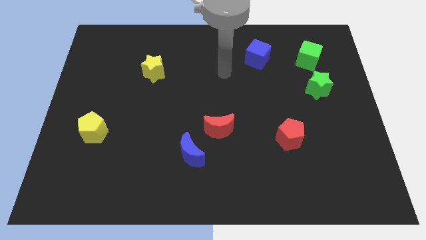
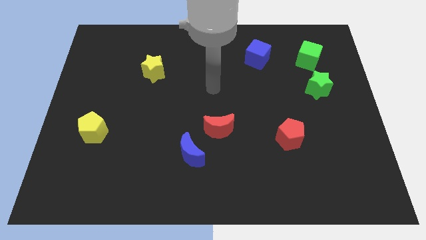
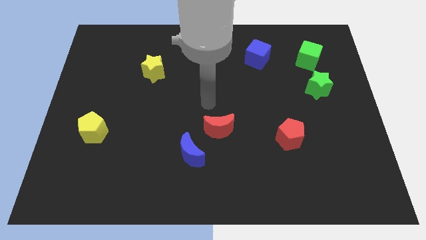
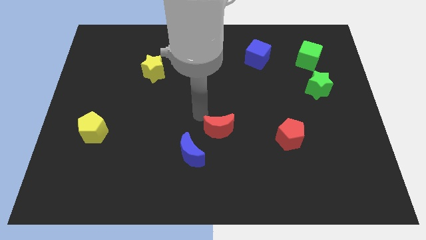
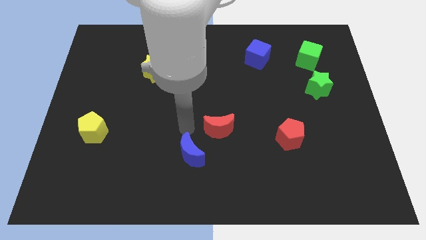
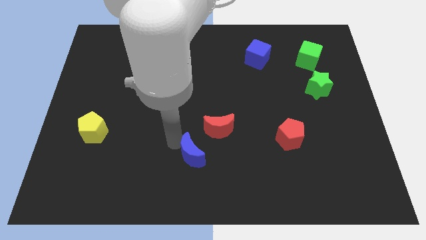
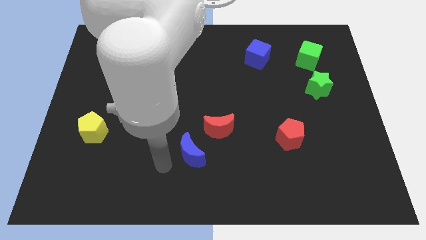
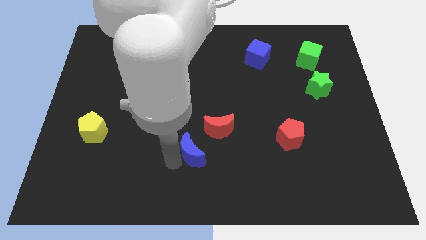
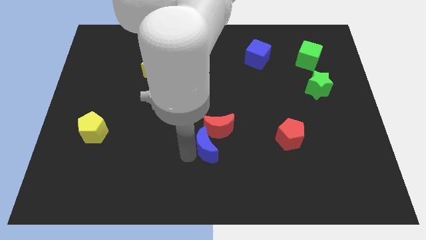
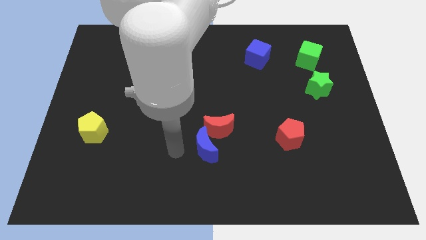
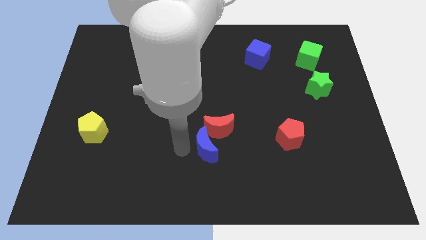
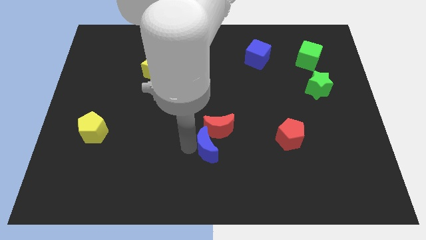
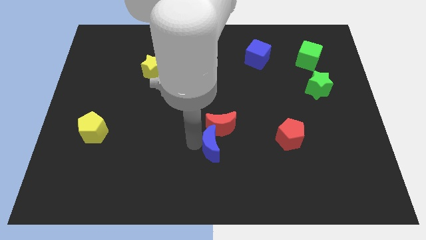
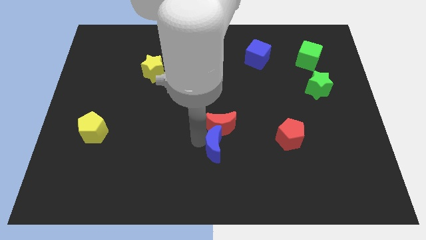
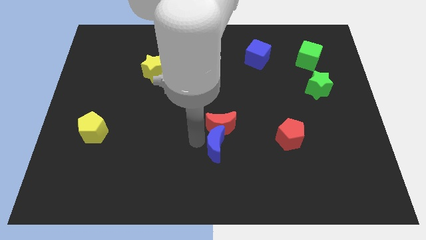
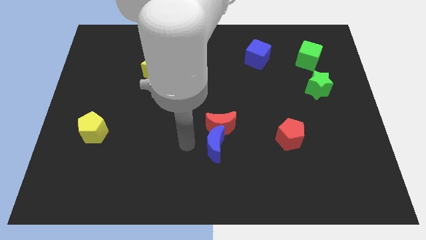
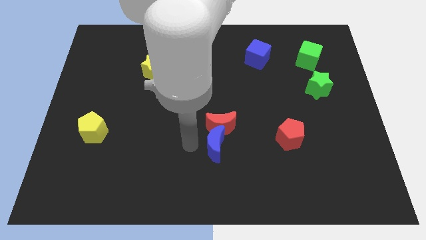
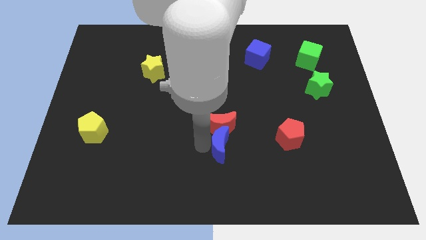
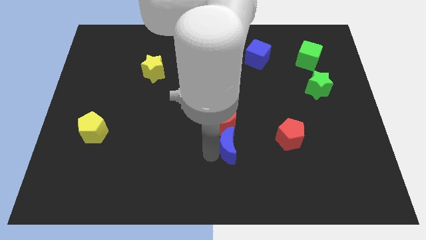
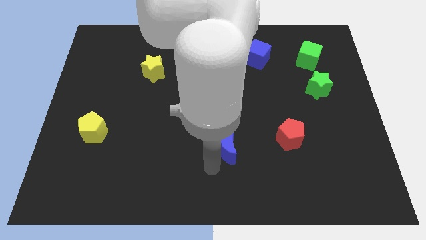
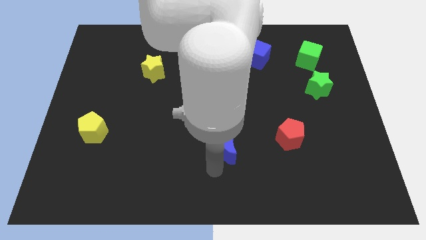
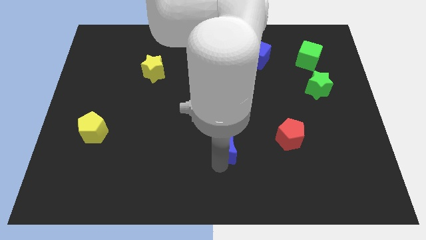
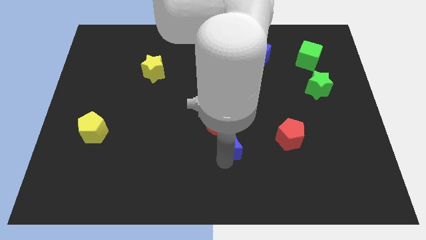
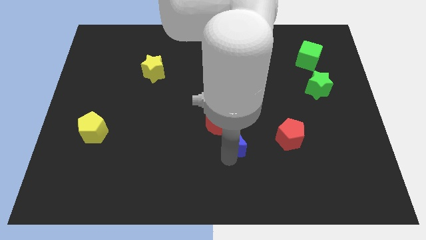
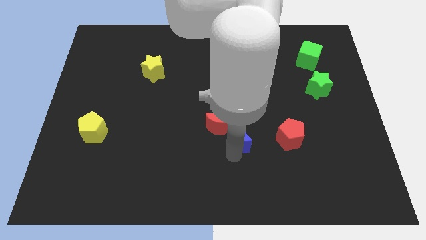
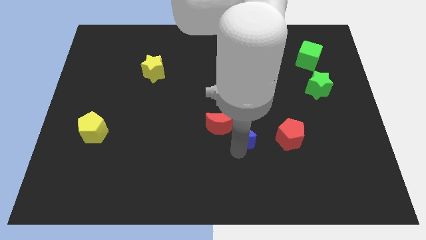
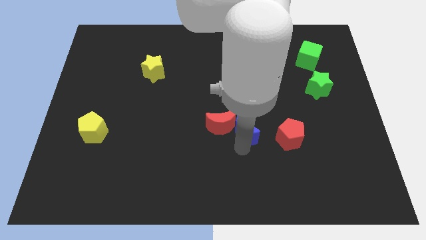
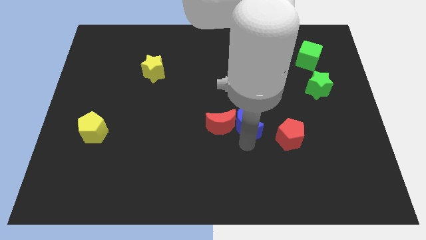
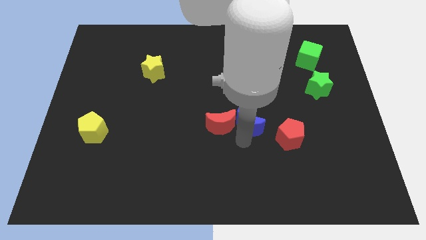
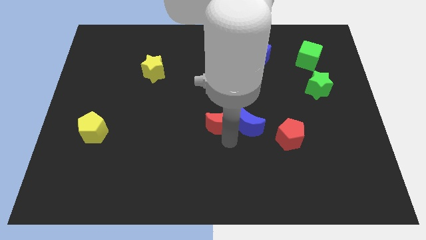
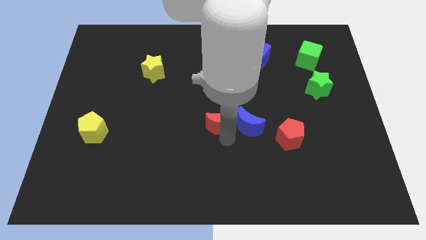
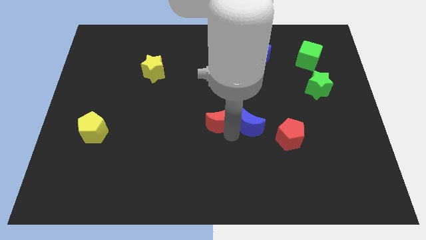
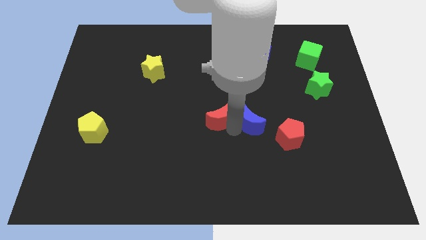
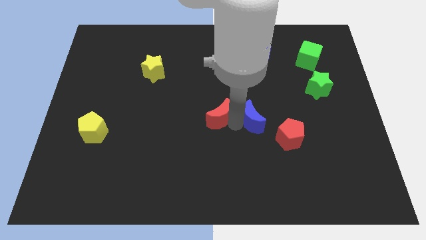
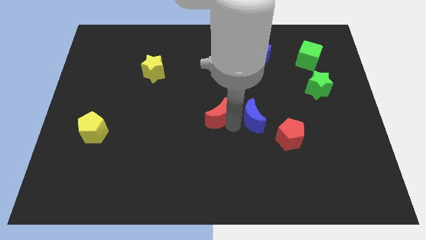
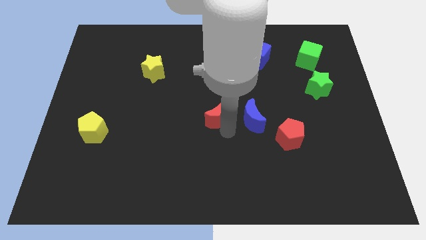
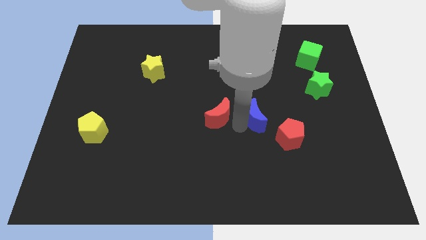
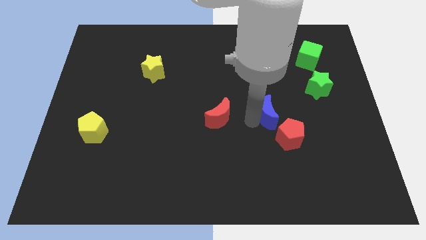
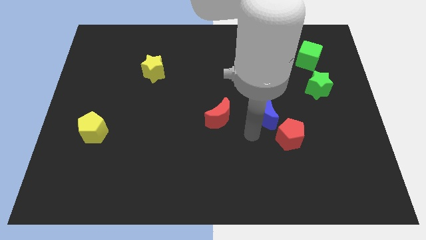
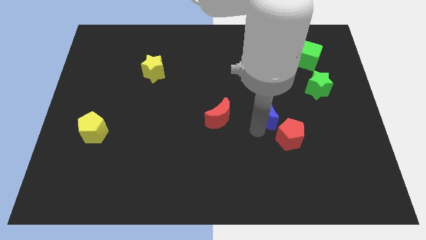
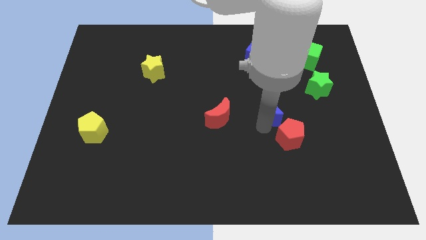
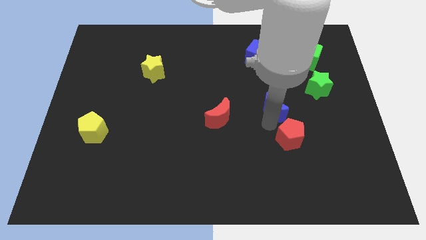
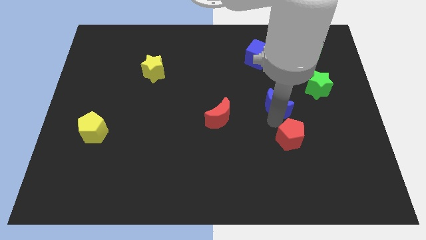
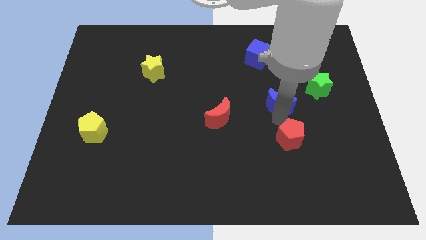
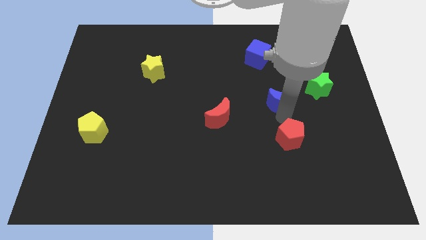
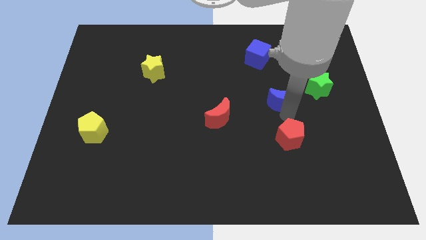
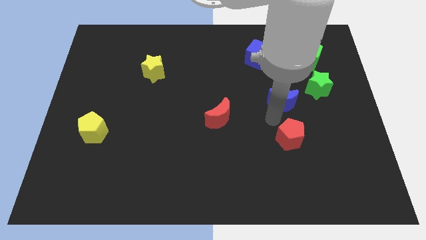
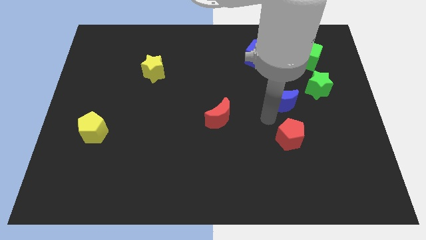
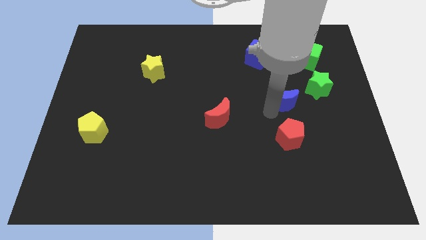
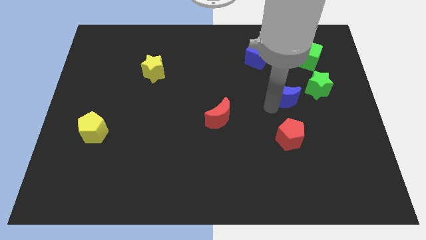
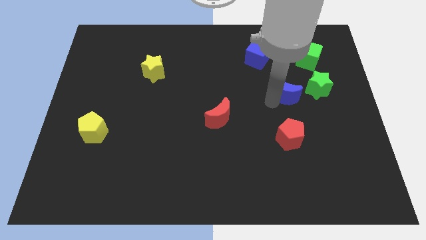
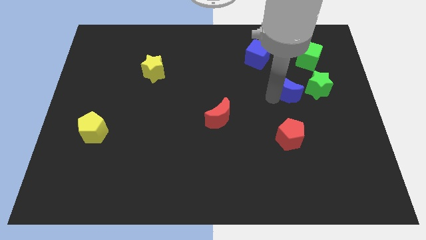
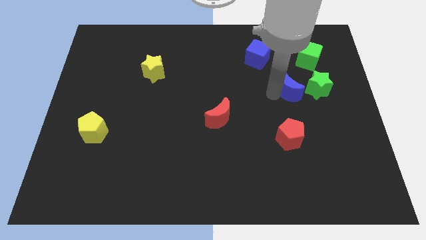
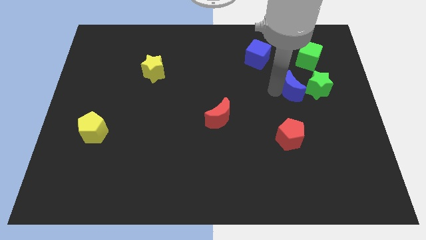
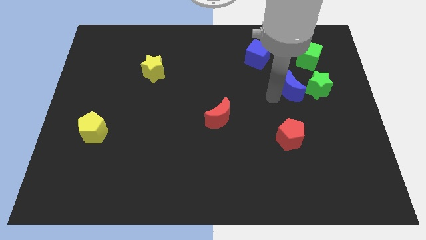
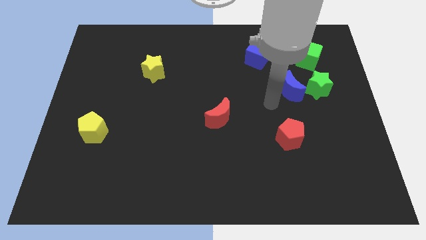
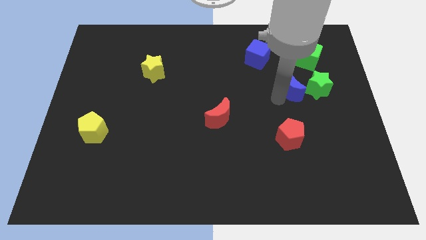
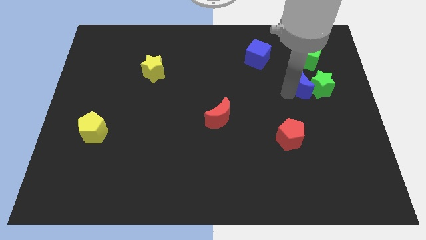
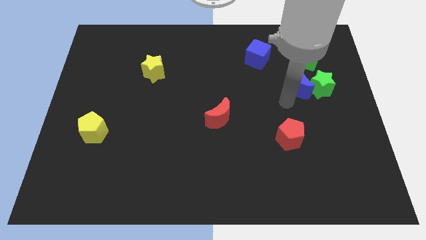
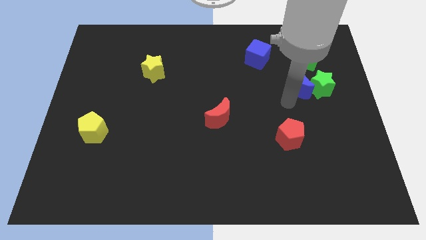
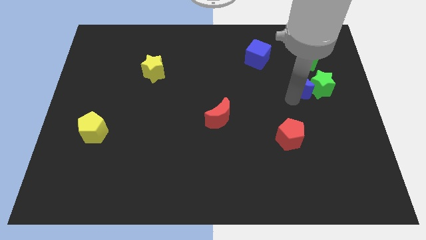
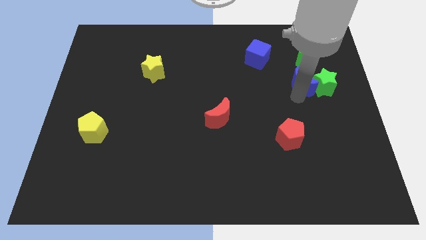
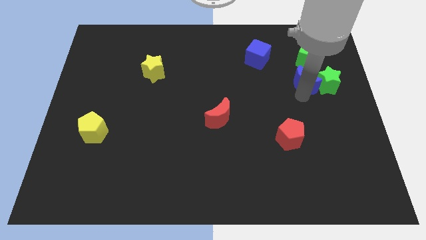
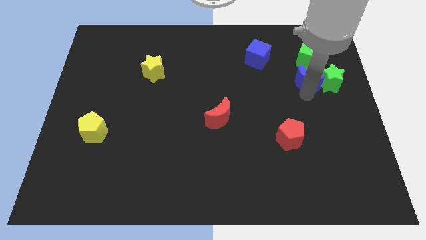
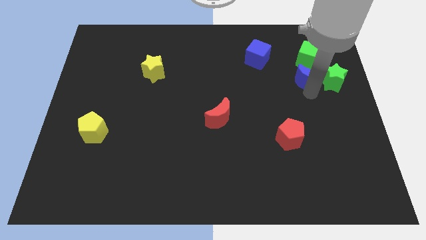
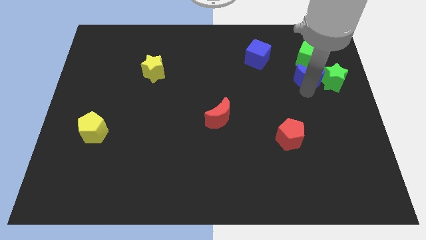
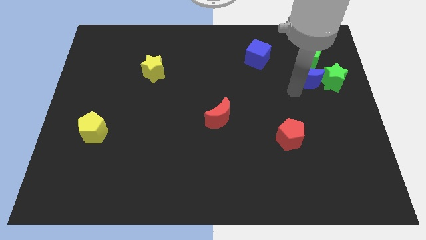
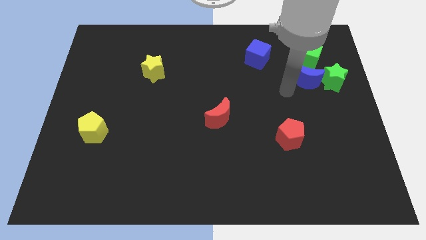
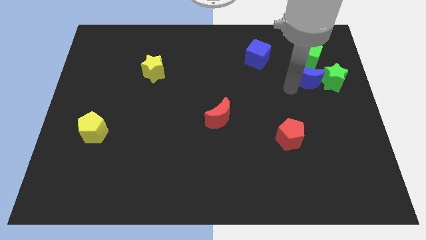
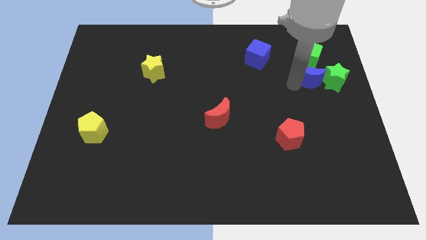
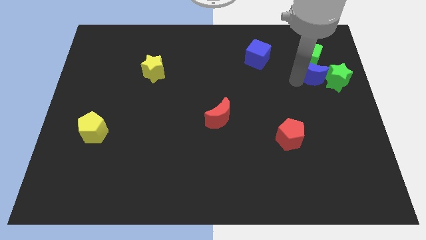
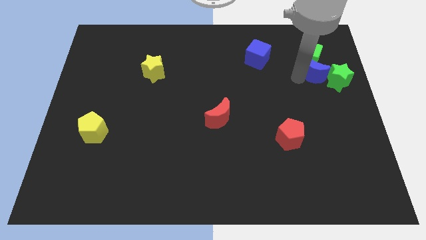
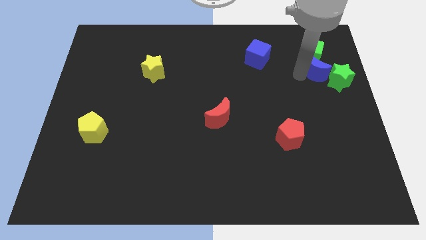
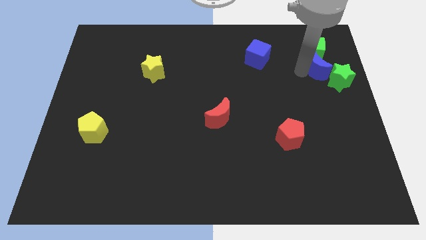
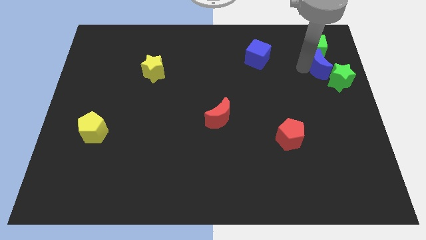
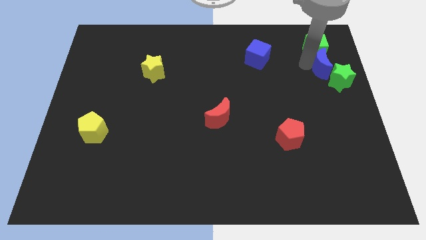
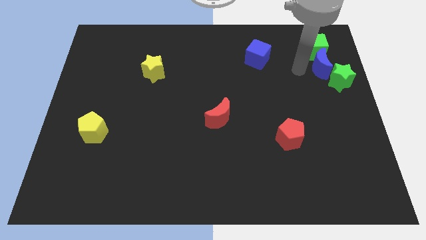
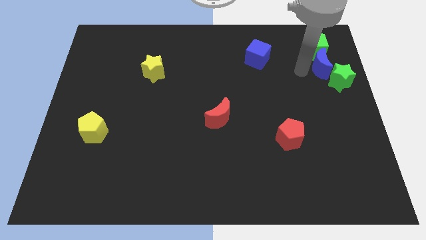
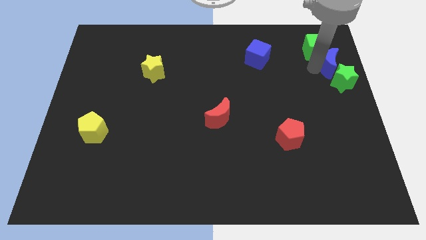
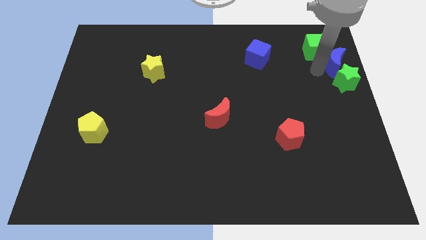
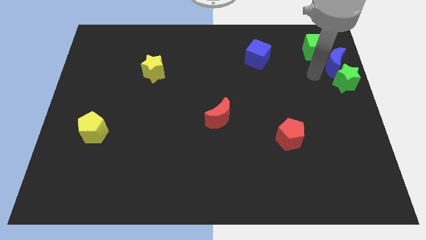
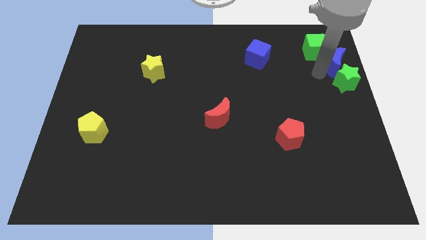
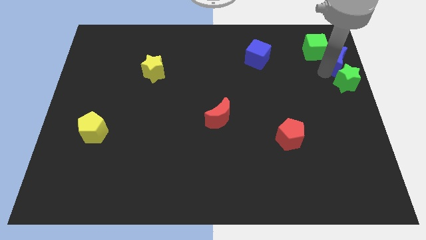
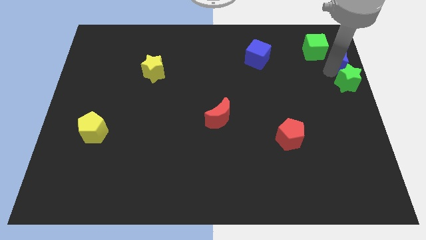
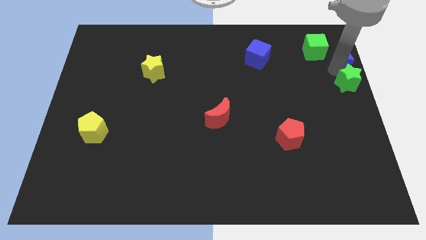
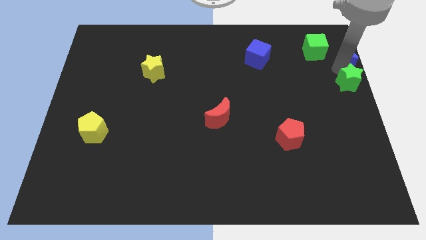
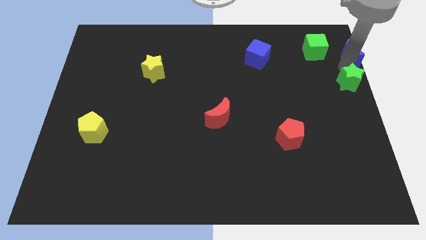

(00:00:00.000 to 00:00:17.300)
slide the blue moon to the upper right corner
